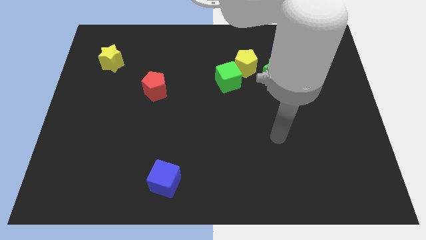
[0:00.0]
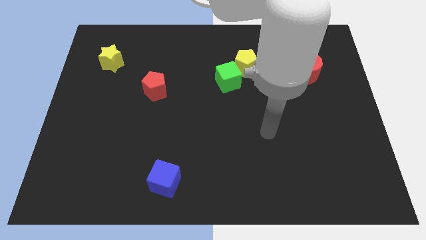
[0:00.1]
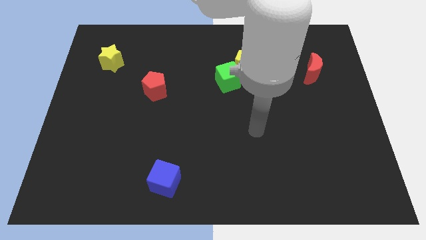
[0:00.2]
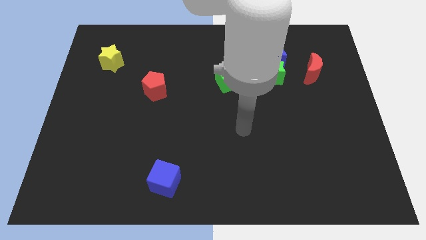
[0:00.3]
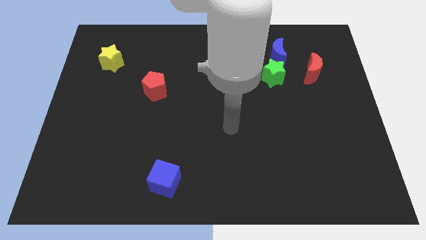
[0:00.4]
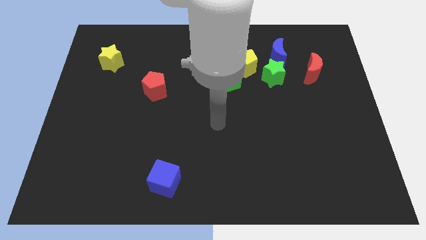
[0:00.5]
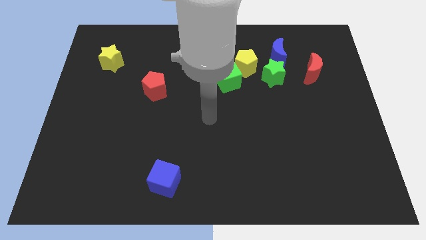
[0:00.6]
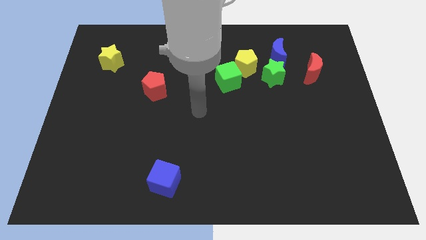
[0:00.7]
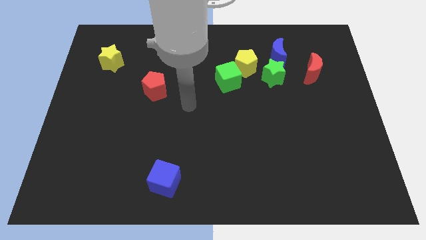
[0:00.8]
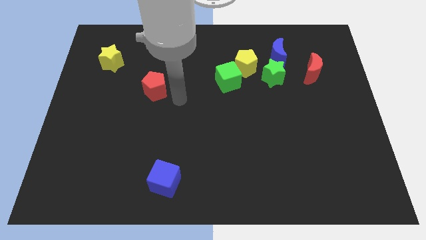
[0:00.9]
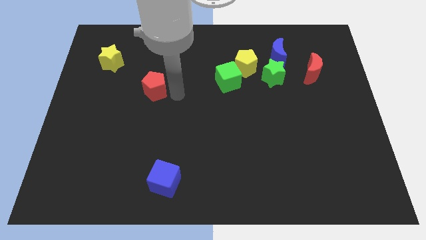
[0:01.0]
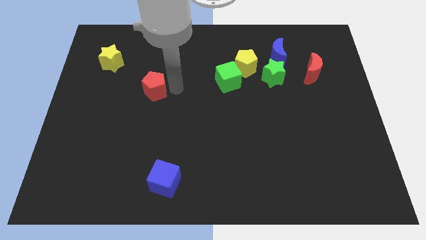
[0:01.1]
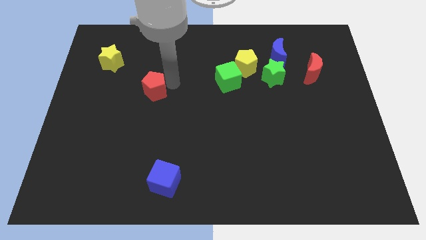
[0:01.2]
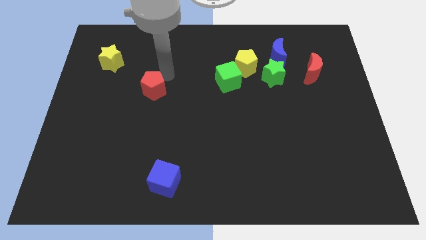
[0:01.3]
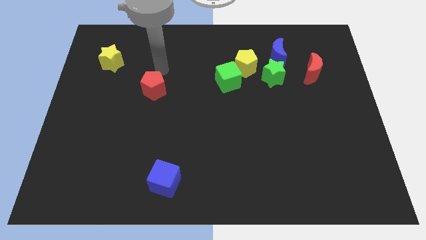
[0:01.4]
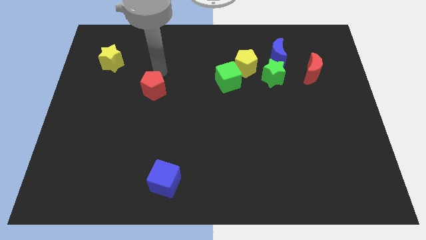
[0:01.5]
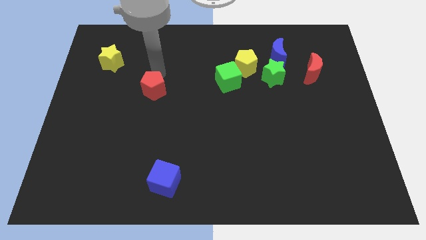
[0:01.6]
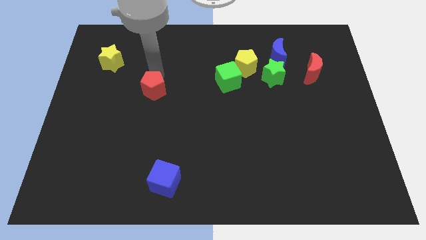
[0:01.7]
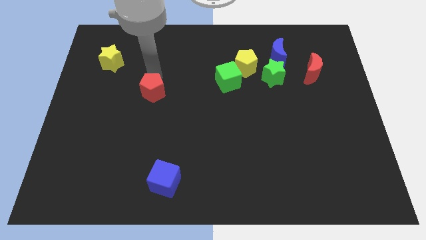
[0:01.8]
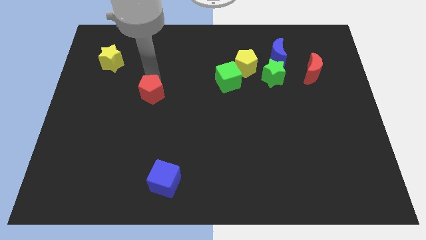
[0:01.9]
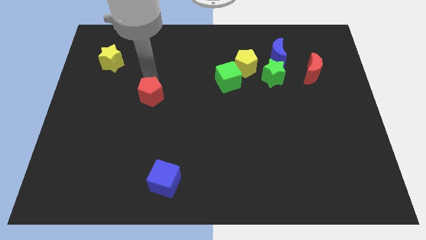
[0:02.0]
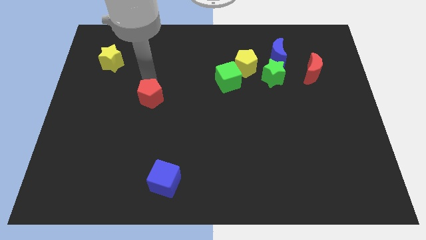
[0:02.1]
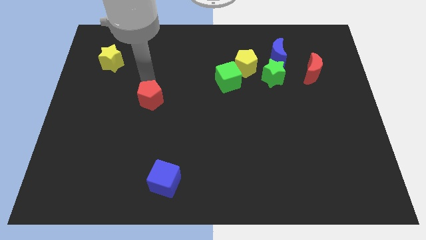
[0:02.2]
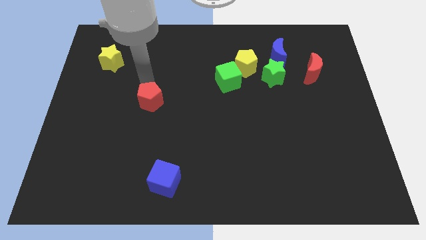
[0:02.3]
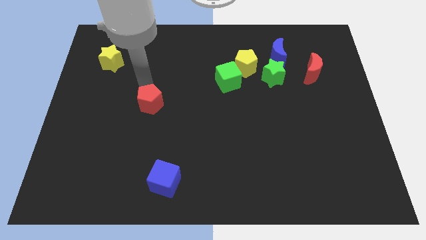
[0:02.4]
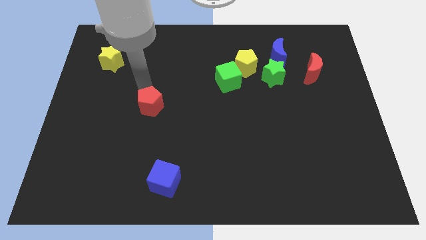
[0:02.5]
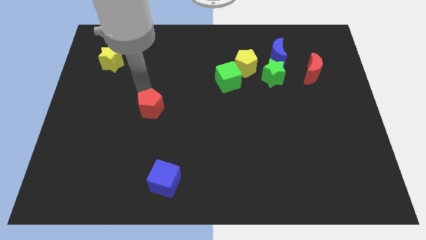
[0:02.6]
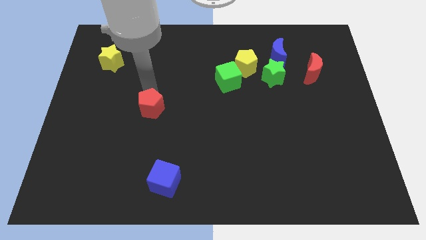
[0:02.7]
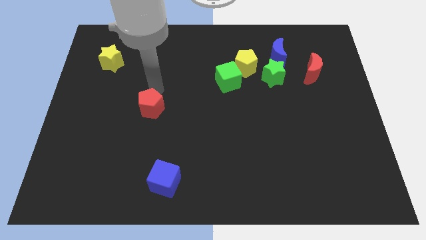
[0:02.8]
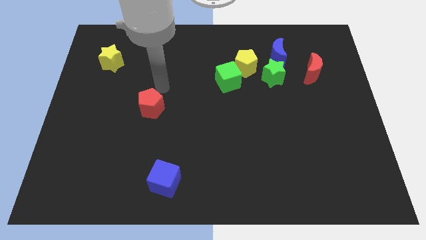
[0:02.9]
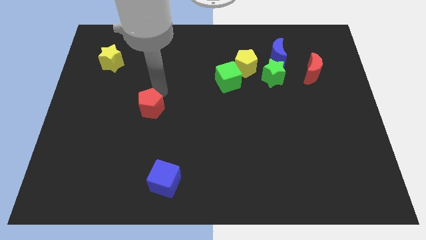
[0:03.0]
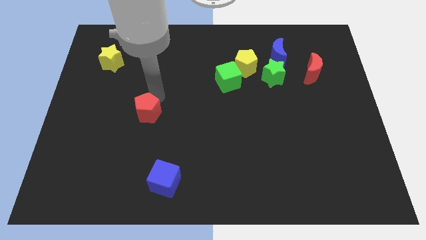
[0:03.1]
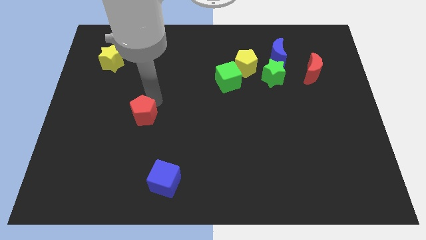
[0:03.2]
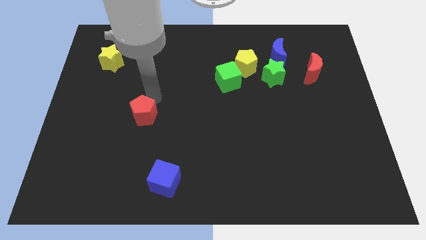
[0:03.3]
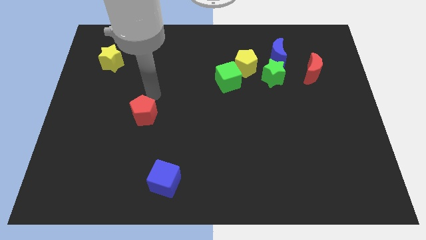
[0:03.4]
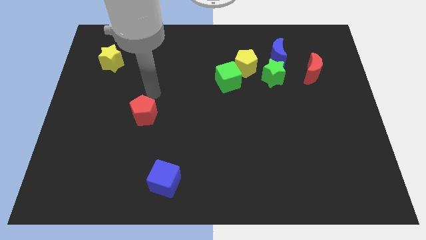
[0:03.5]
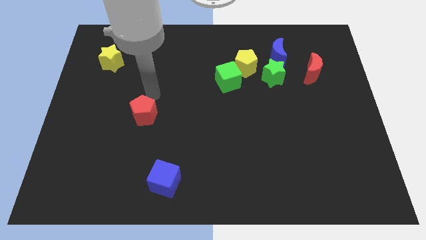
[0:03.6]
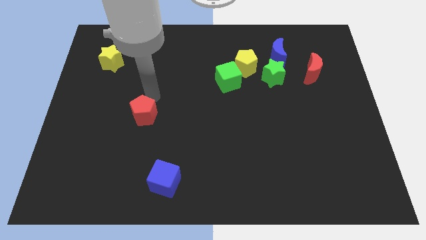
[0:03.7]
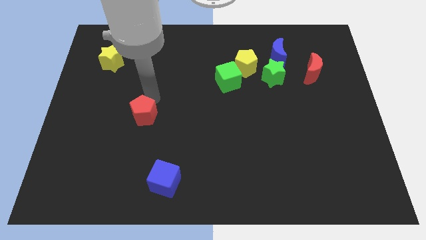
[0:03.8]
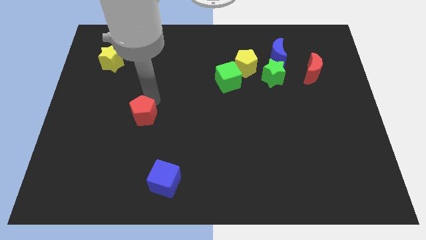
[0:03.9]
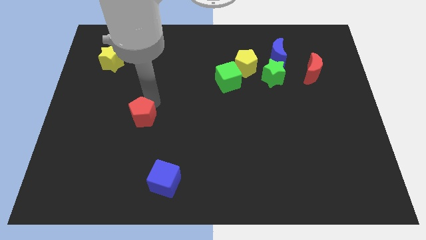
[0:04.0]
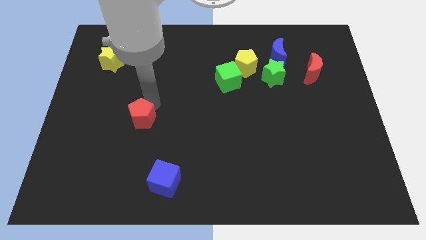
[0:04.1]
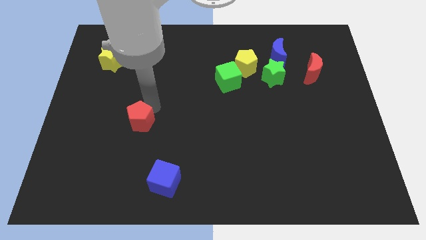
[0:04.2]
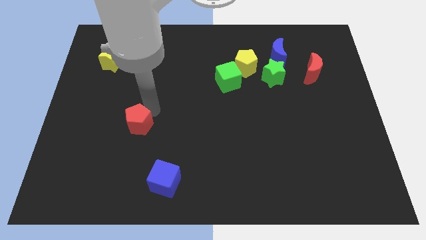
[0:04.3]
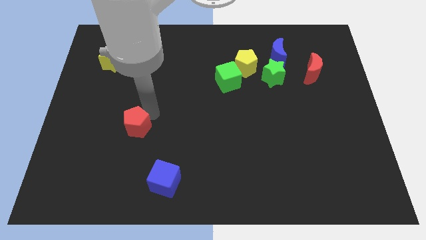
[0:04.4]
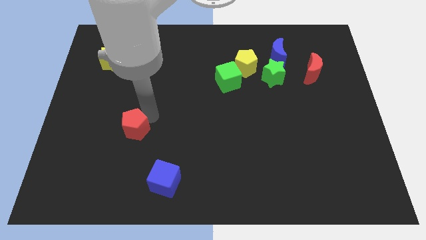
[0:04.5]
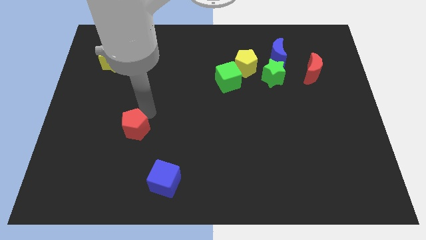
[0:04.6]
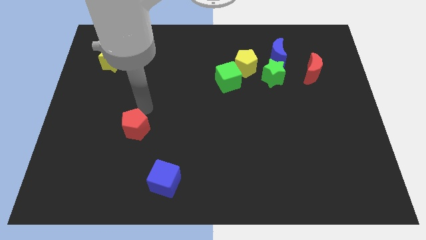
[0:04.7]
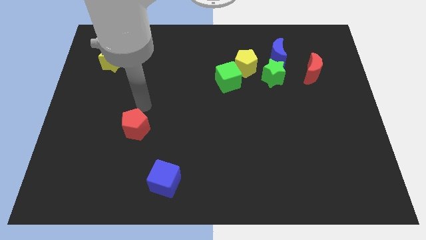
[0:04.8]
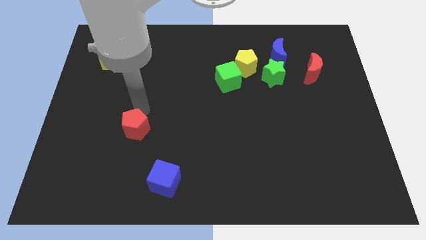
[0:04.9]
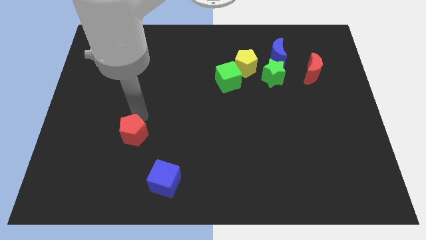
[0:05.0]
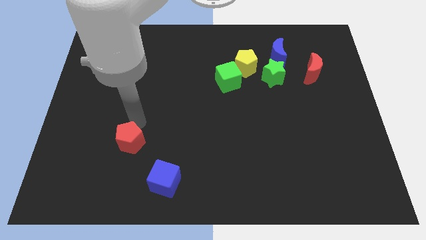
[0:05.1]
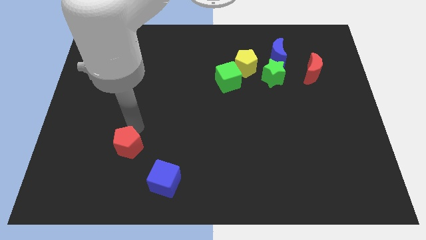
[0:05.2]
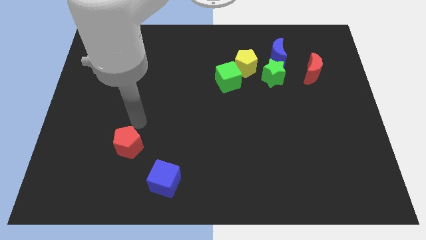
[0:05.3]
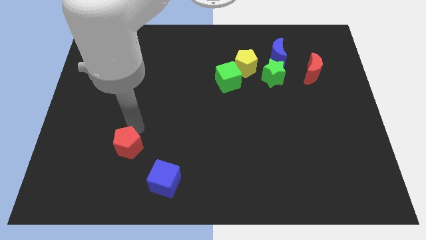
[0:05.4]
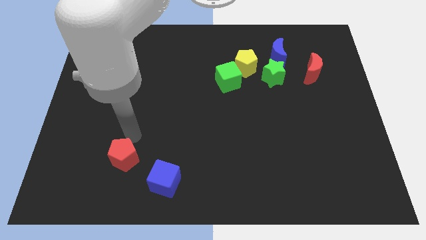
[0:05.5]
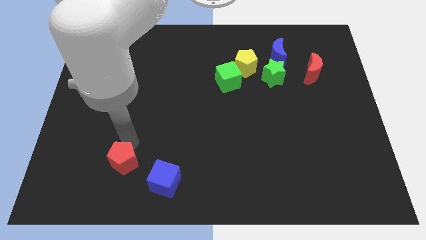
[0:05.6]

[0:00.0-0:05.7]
push the red pentagon just left of the blue cube

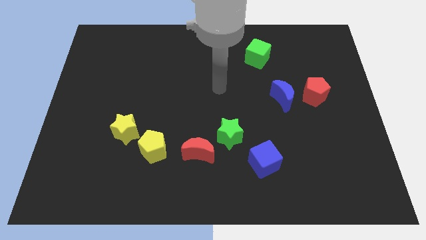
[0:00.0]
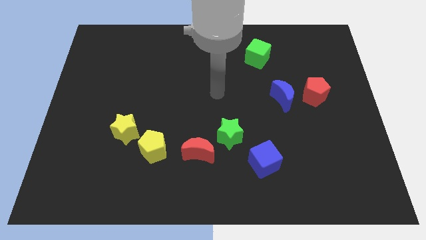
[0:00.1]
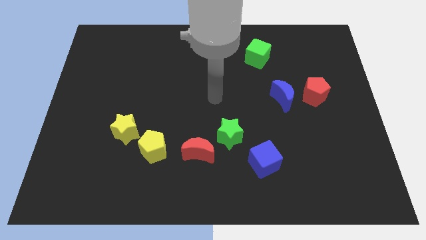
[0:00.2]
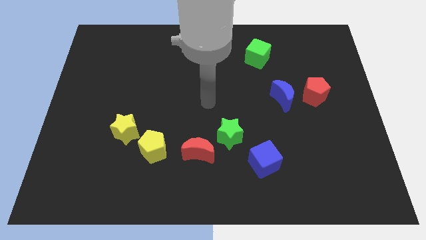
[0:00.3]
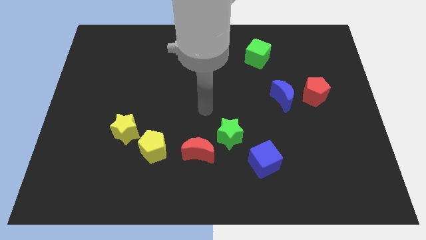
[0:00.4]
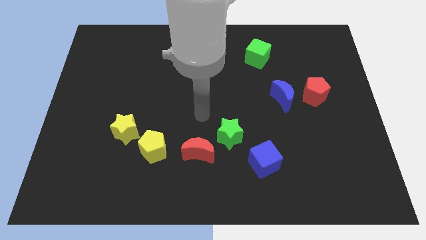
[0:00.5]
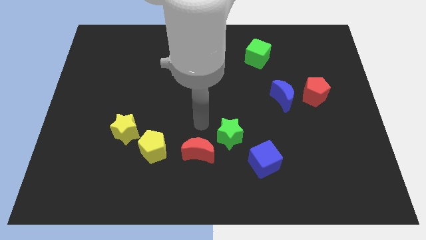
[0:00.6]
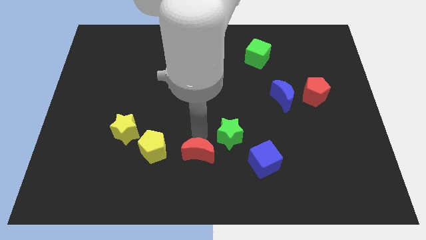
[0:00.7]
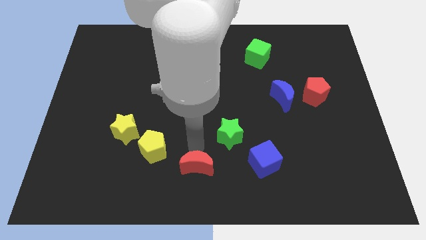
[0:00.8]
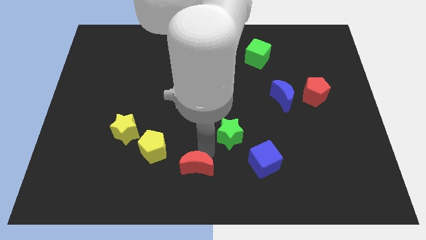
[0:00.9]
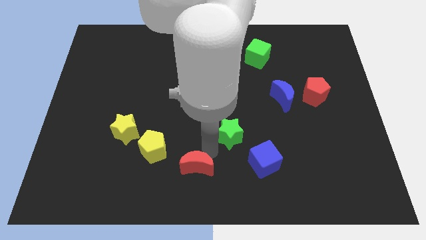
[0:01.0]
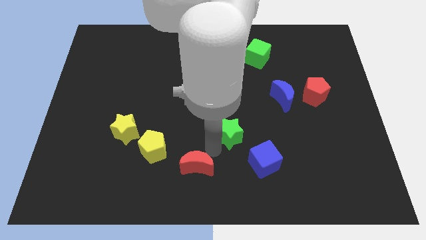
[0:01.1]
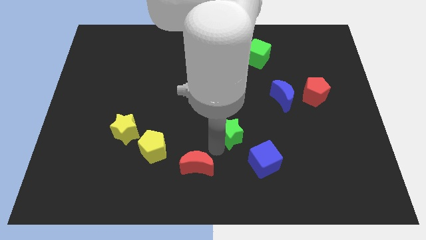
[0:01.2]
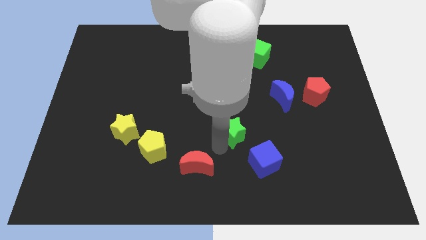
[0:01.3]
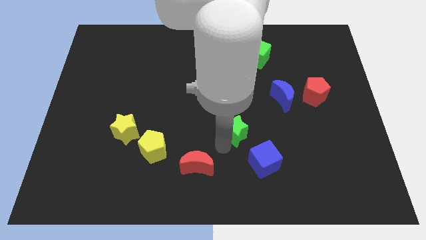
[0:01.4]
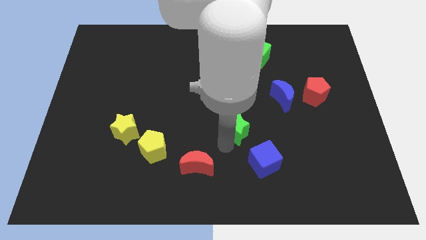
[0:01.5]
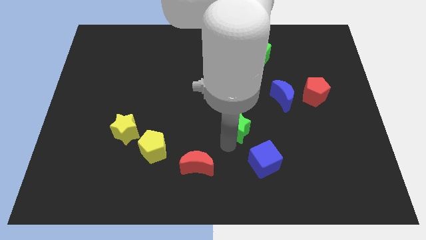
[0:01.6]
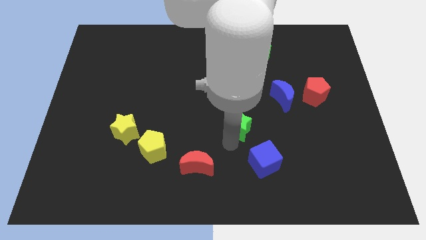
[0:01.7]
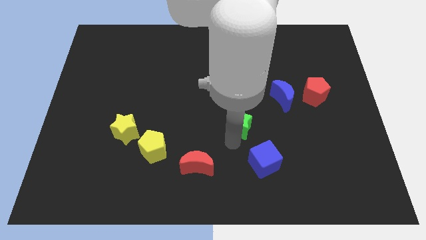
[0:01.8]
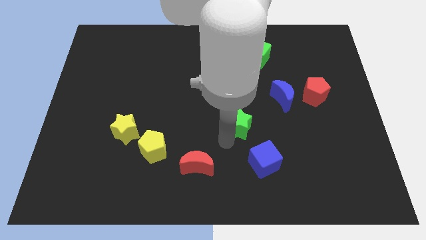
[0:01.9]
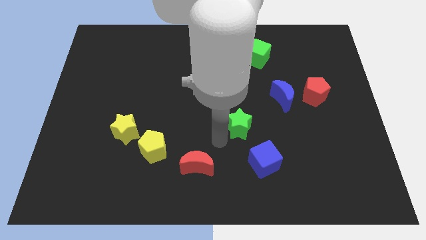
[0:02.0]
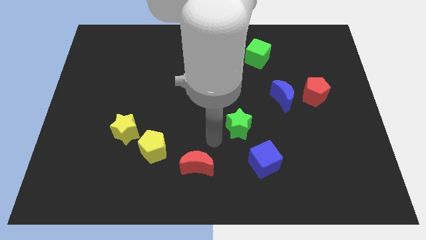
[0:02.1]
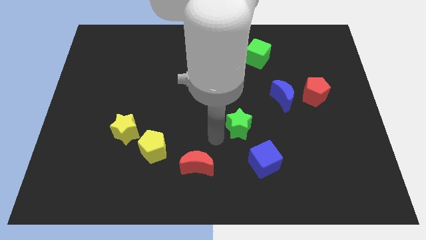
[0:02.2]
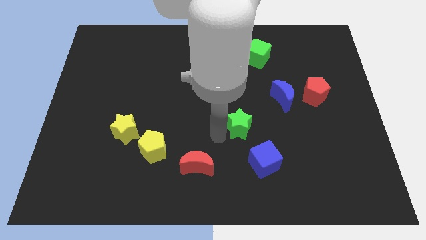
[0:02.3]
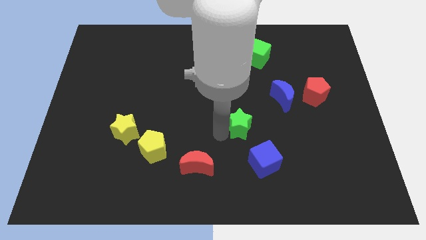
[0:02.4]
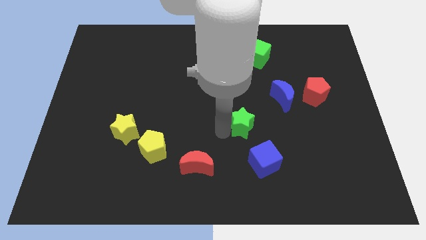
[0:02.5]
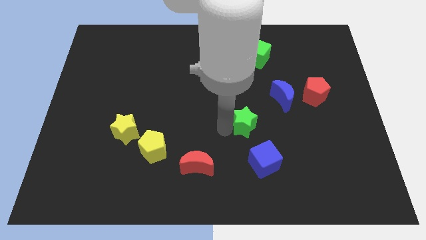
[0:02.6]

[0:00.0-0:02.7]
push the green star to the bottom left of the blue moon
